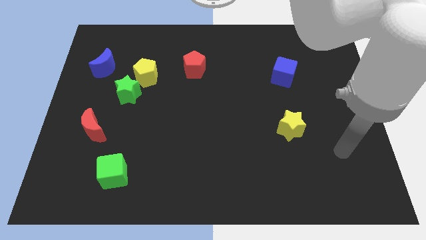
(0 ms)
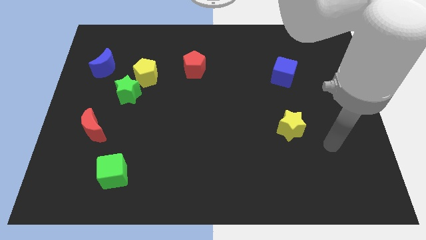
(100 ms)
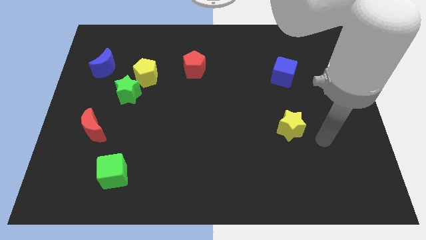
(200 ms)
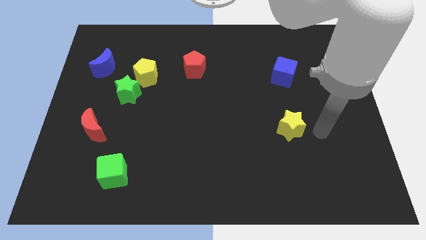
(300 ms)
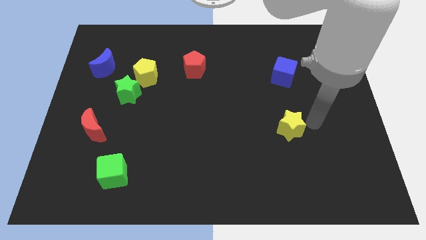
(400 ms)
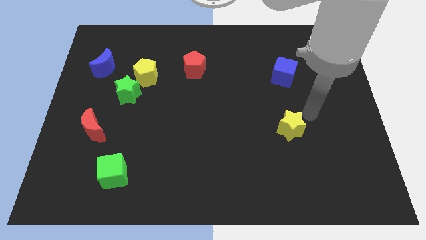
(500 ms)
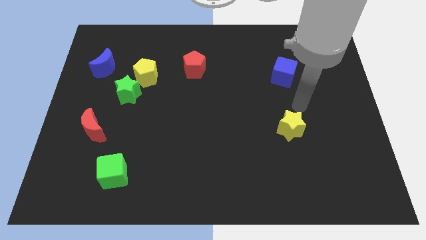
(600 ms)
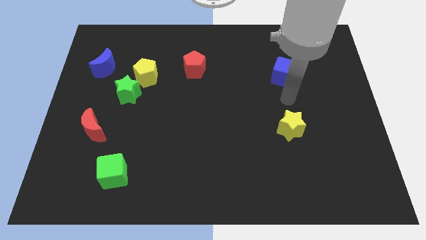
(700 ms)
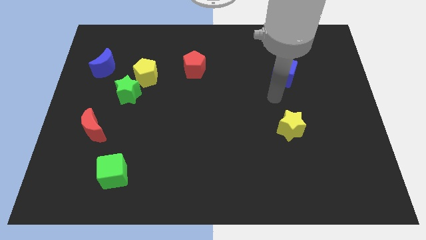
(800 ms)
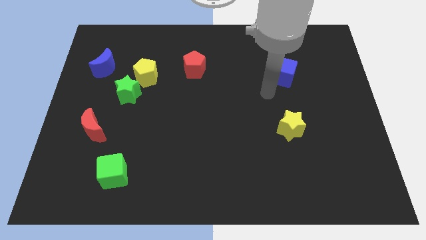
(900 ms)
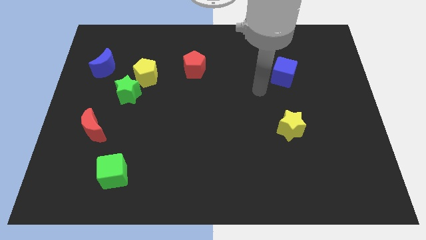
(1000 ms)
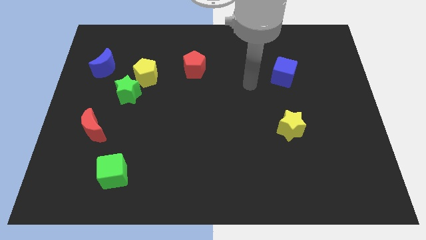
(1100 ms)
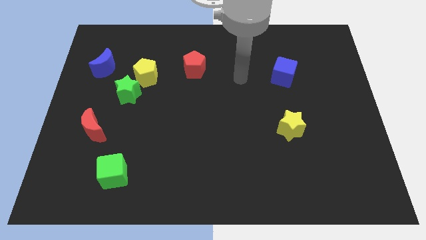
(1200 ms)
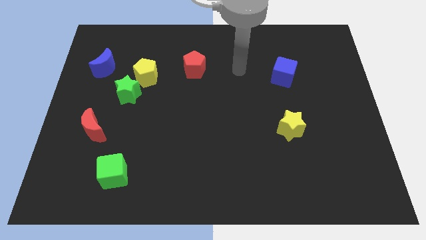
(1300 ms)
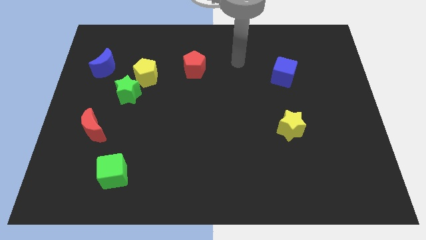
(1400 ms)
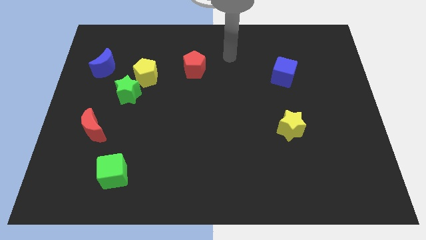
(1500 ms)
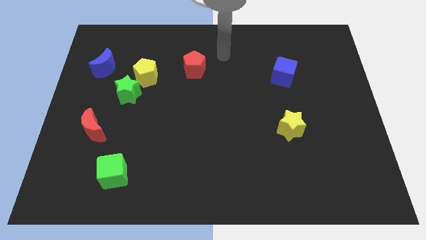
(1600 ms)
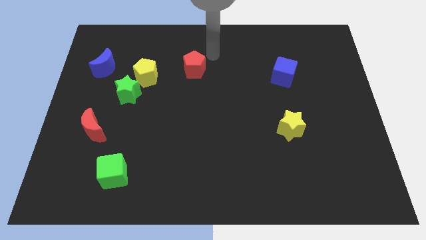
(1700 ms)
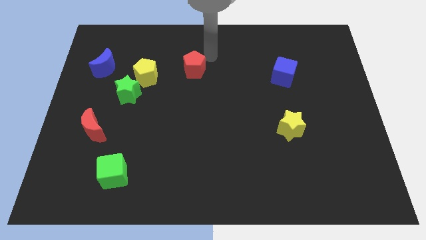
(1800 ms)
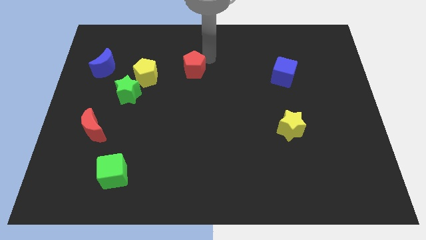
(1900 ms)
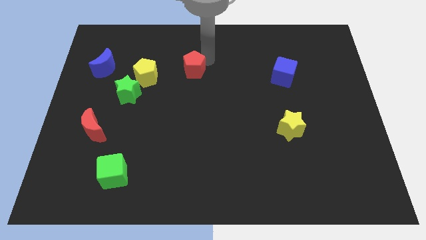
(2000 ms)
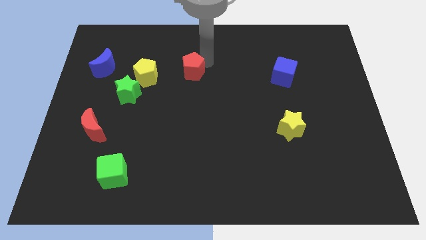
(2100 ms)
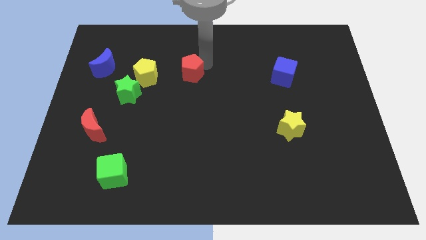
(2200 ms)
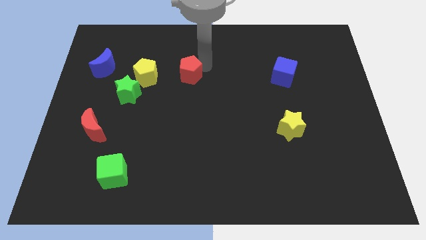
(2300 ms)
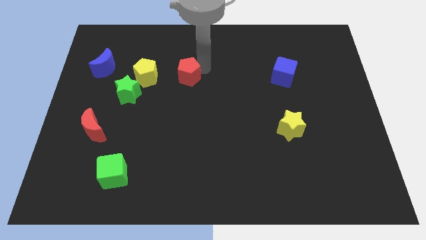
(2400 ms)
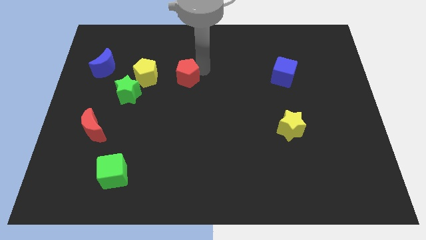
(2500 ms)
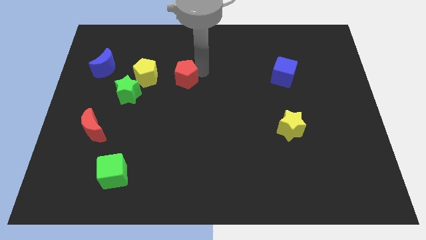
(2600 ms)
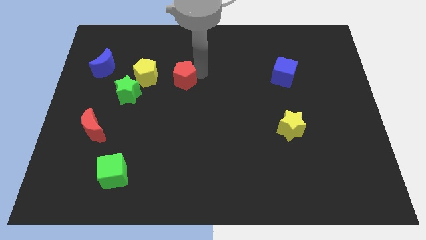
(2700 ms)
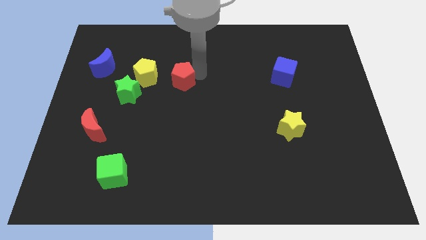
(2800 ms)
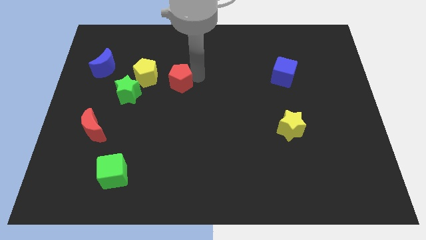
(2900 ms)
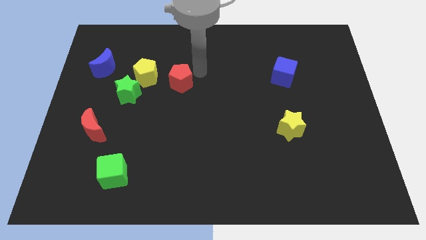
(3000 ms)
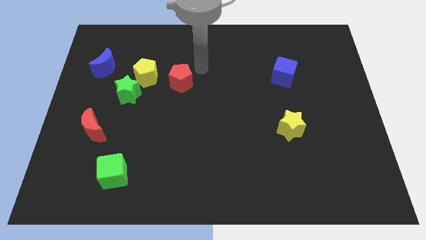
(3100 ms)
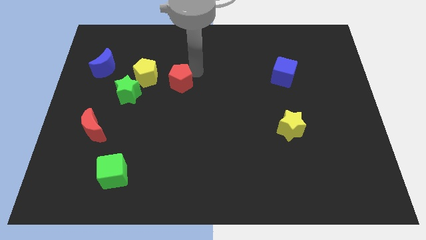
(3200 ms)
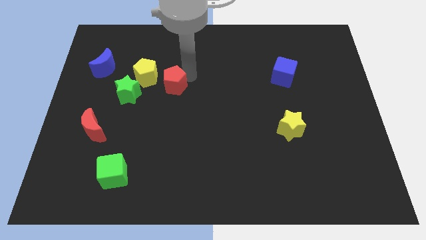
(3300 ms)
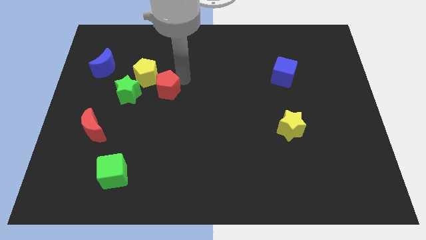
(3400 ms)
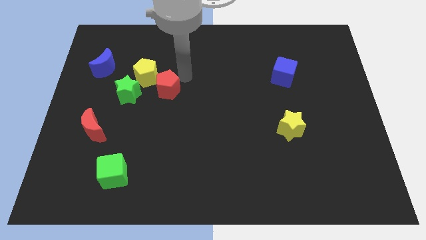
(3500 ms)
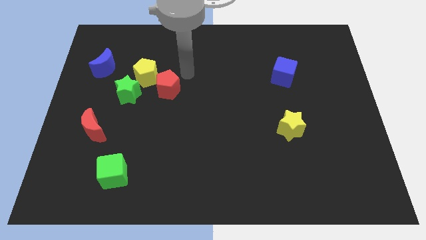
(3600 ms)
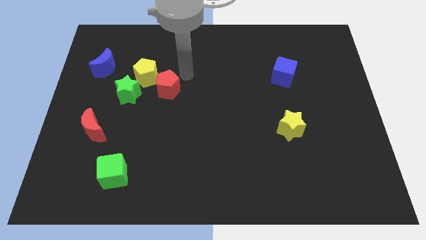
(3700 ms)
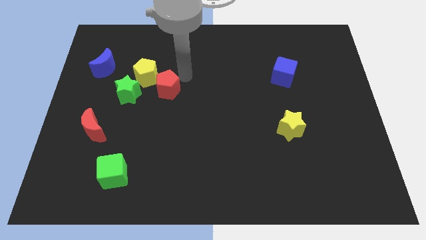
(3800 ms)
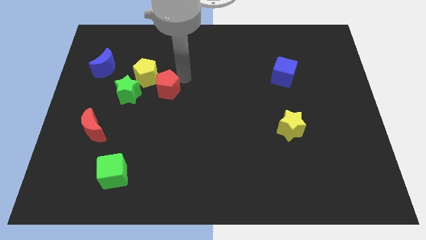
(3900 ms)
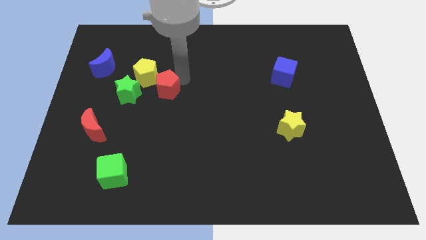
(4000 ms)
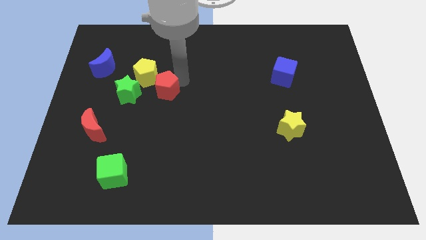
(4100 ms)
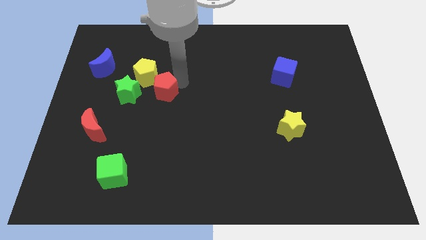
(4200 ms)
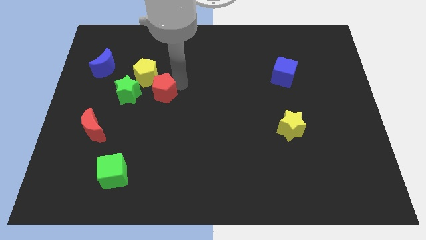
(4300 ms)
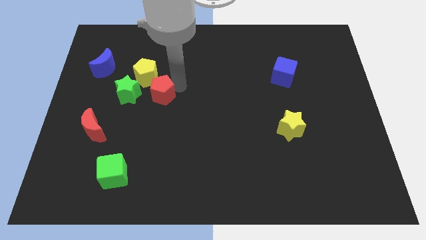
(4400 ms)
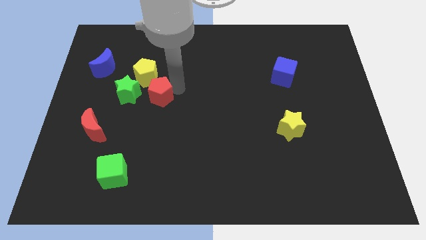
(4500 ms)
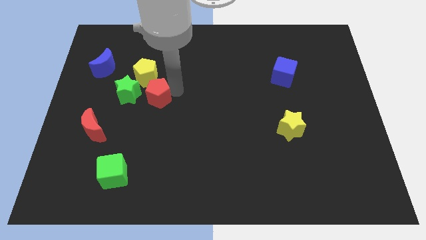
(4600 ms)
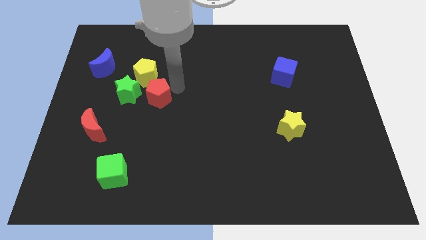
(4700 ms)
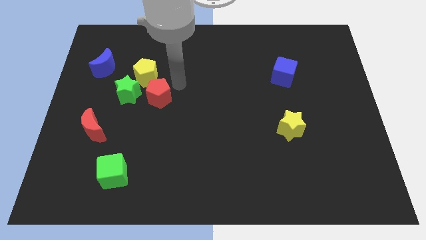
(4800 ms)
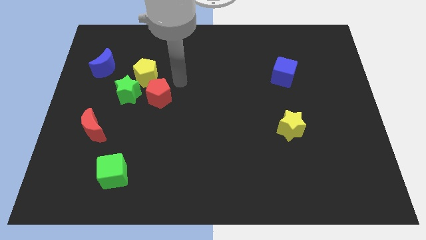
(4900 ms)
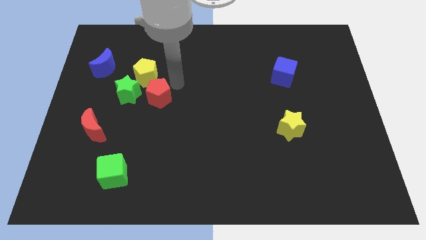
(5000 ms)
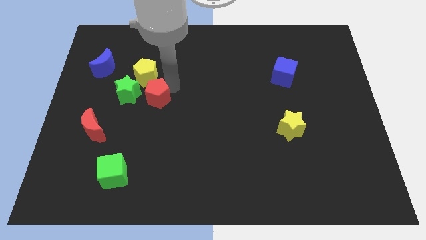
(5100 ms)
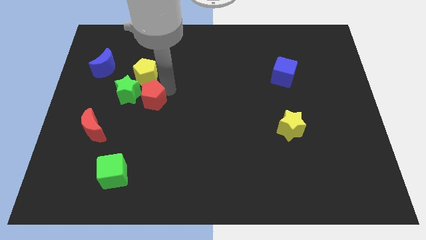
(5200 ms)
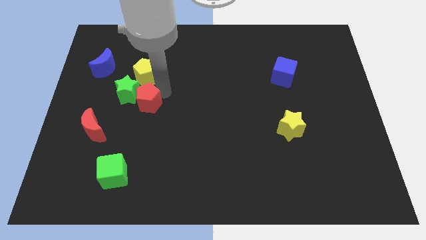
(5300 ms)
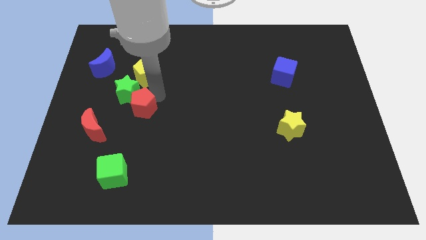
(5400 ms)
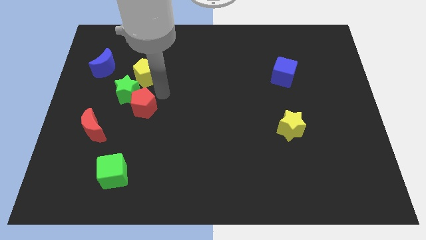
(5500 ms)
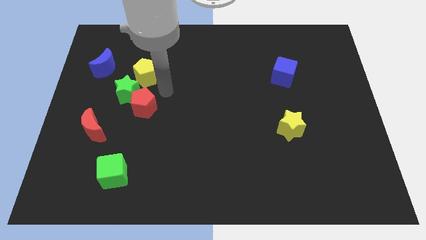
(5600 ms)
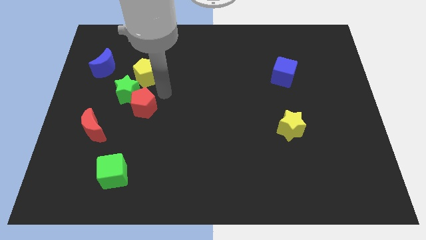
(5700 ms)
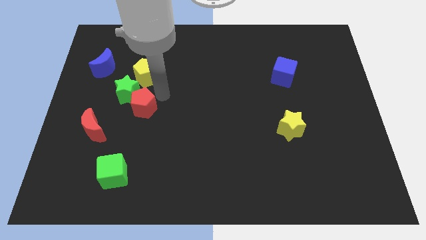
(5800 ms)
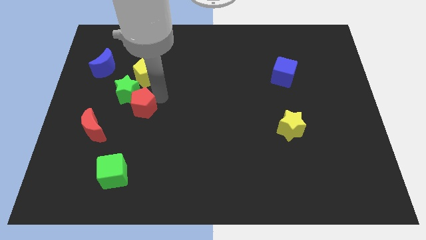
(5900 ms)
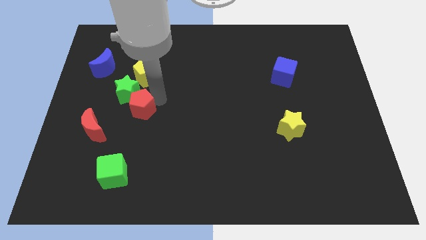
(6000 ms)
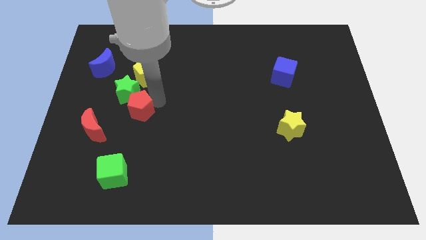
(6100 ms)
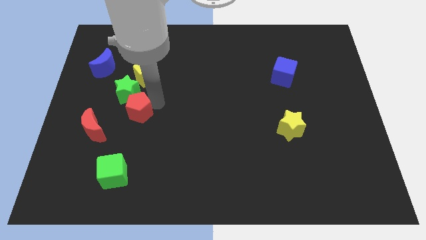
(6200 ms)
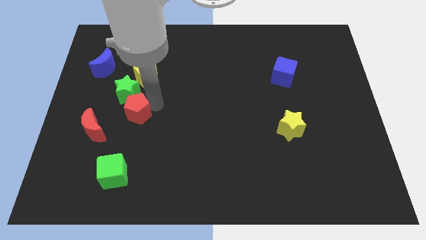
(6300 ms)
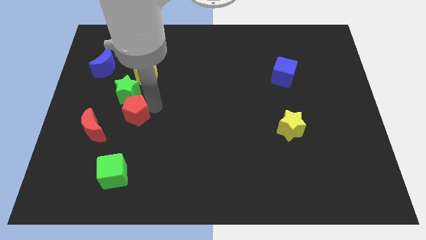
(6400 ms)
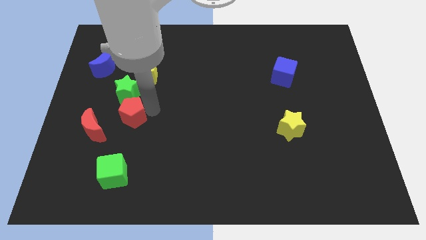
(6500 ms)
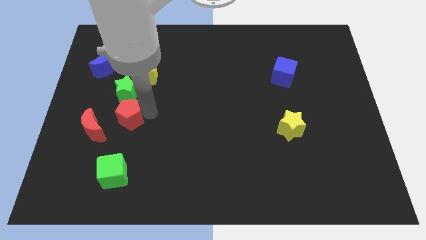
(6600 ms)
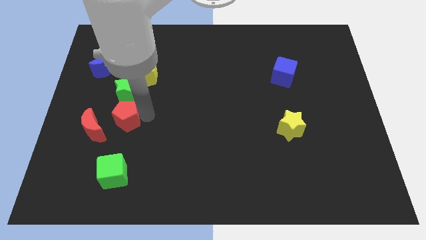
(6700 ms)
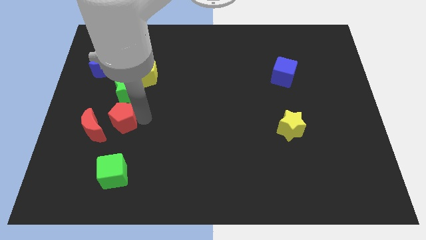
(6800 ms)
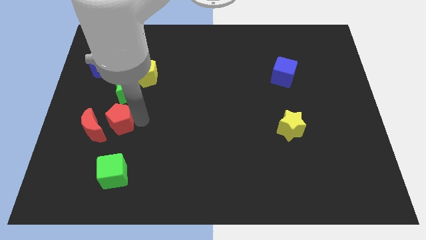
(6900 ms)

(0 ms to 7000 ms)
push the red pentagon next to the red moon

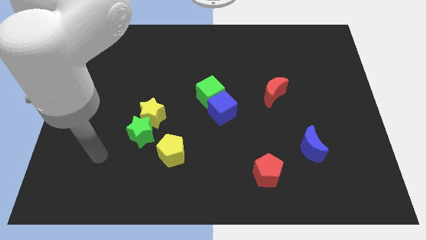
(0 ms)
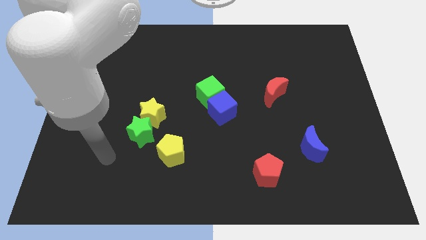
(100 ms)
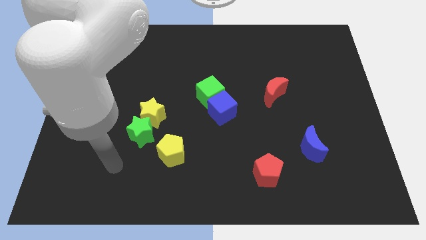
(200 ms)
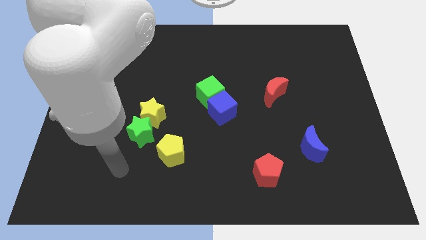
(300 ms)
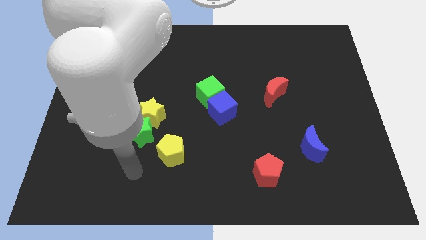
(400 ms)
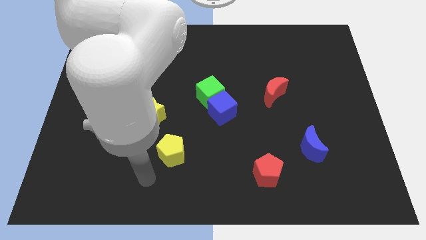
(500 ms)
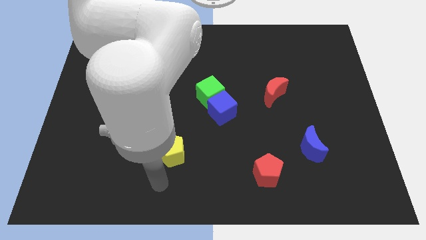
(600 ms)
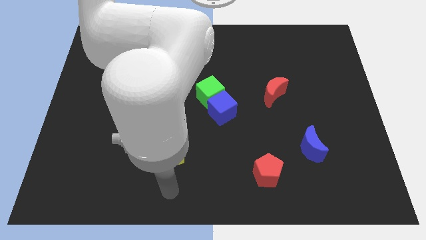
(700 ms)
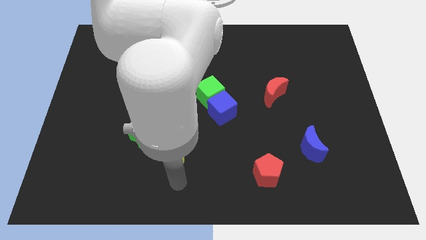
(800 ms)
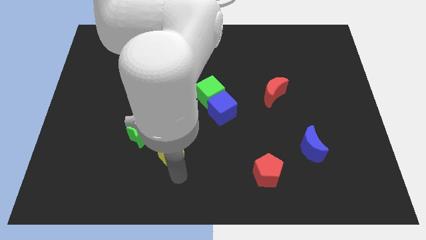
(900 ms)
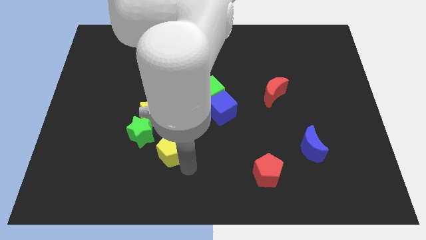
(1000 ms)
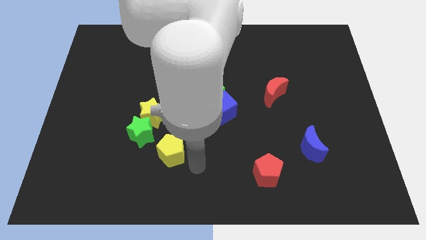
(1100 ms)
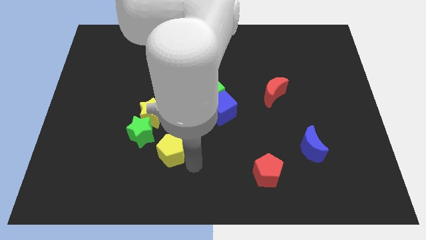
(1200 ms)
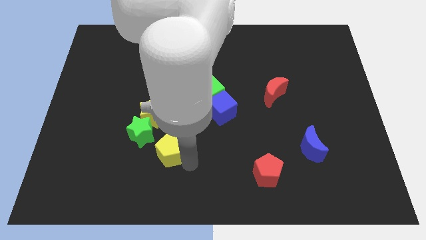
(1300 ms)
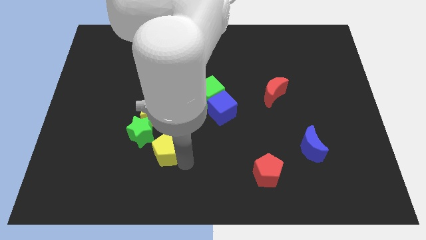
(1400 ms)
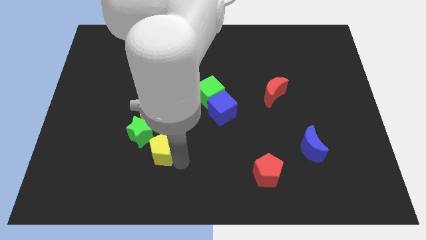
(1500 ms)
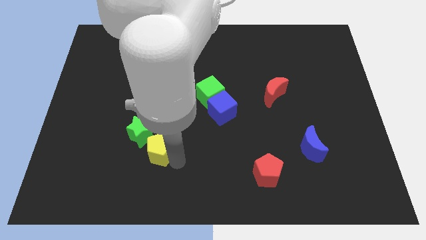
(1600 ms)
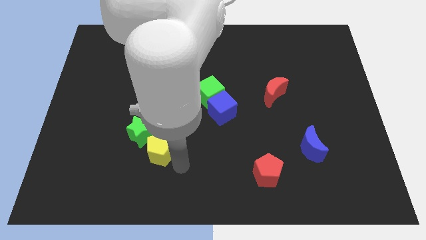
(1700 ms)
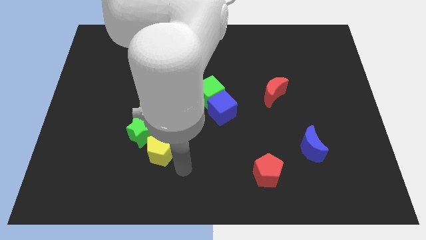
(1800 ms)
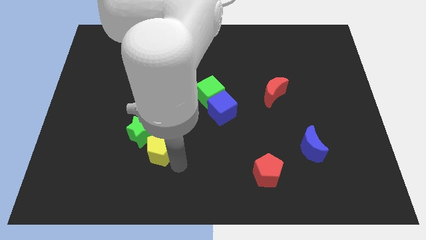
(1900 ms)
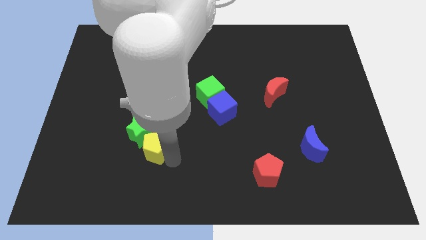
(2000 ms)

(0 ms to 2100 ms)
move the yellow pentagon towards the green star
